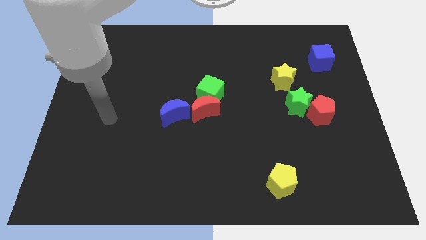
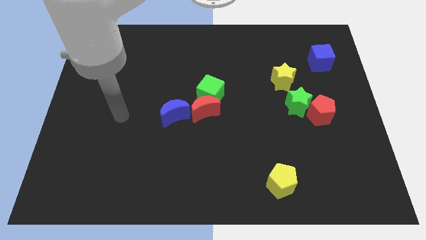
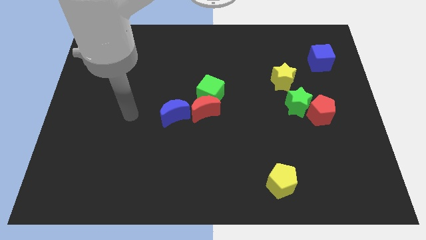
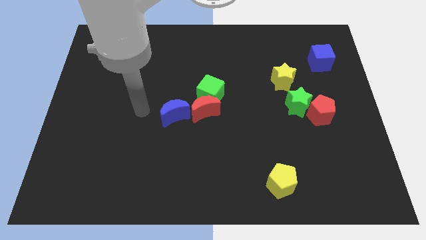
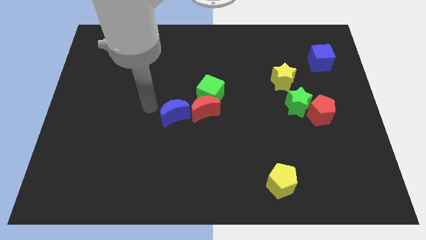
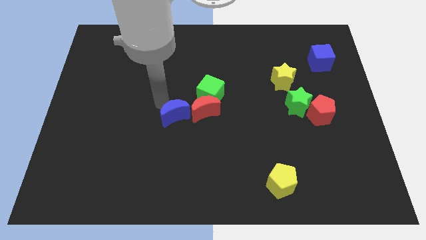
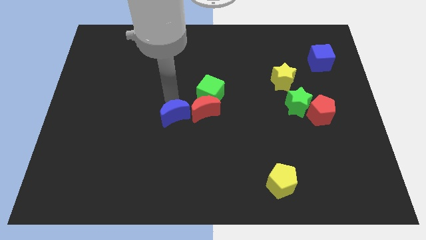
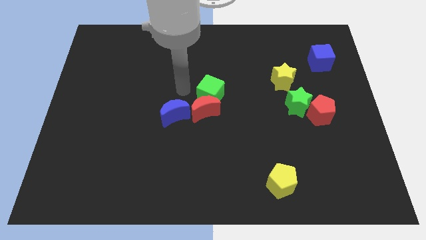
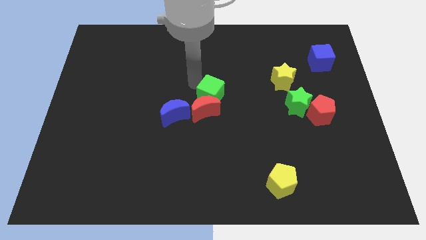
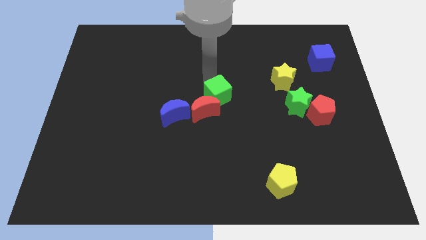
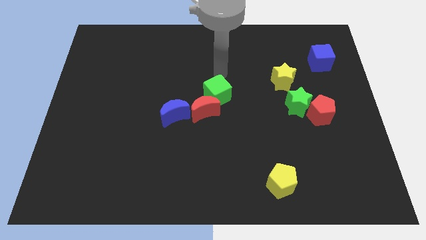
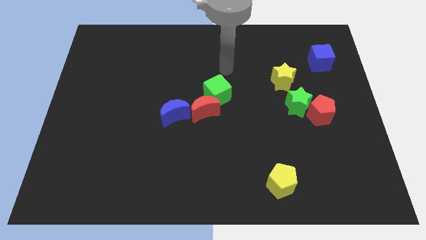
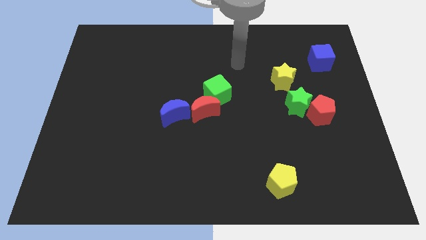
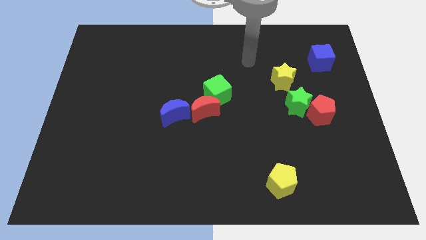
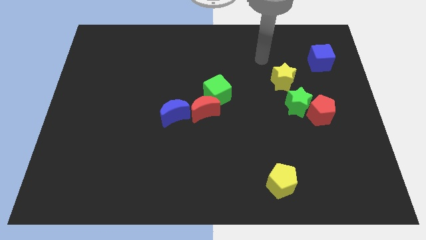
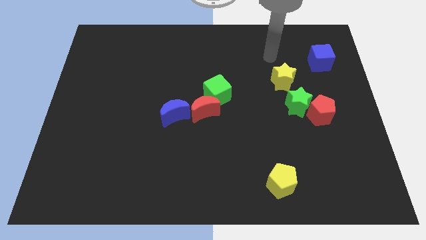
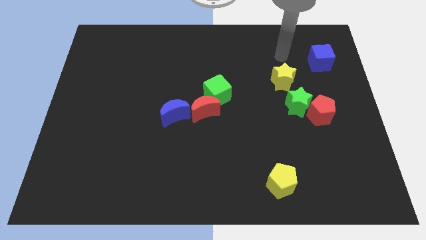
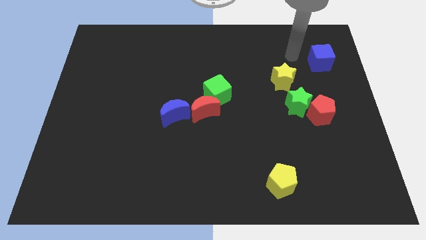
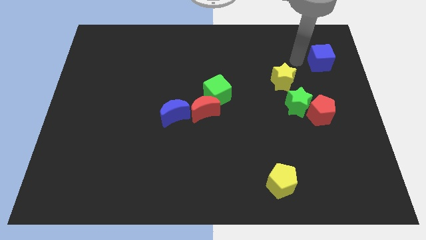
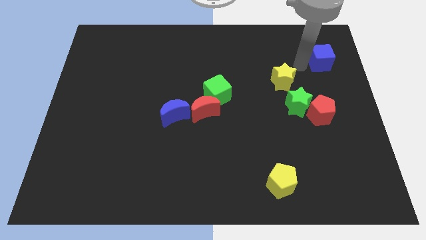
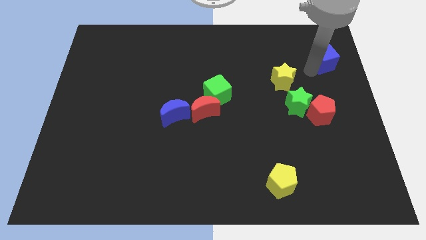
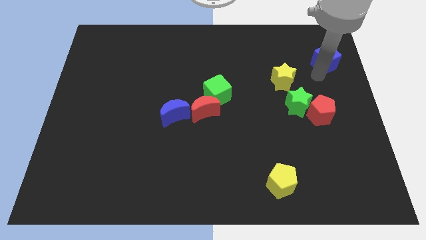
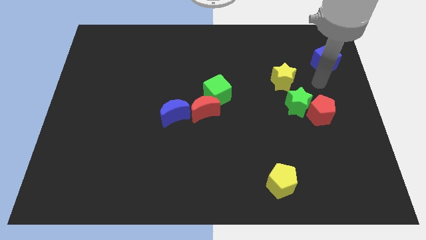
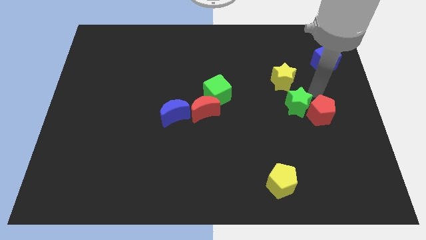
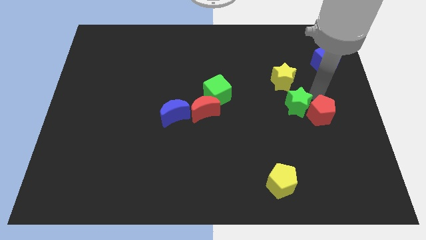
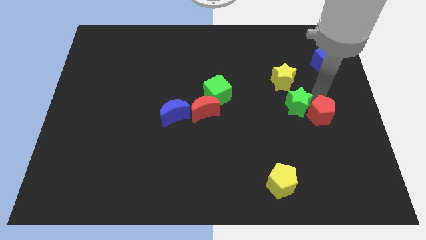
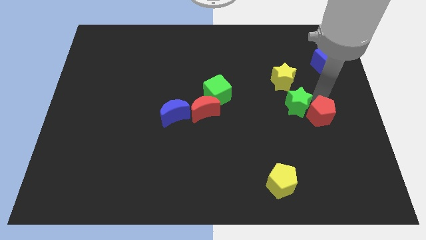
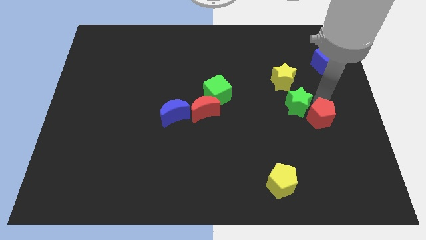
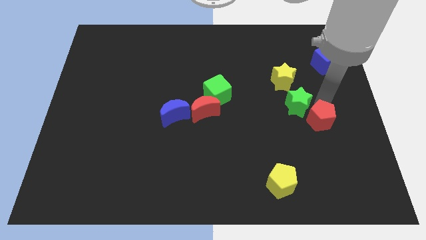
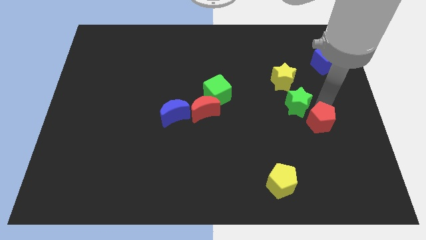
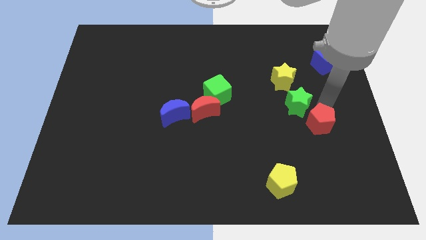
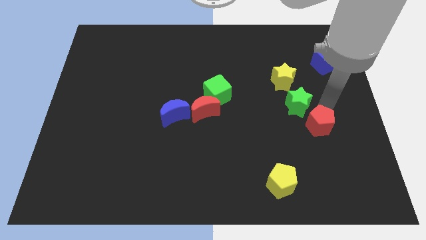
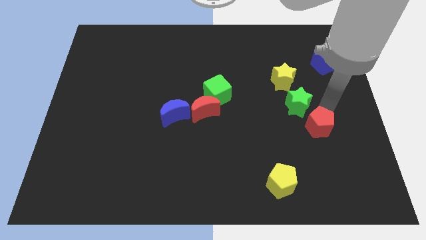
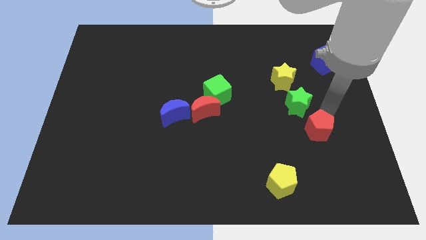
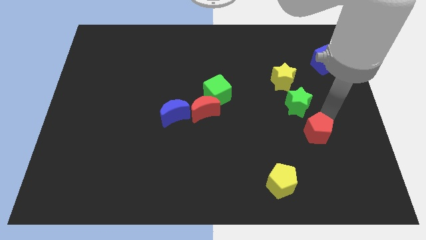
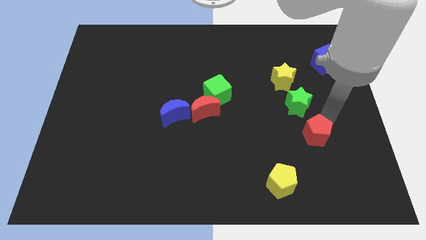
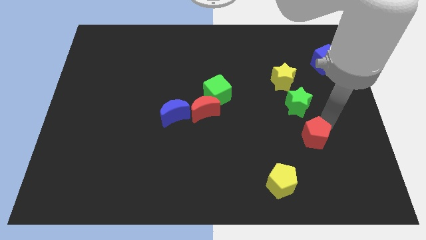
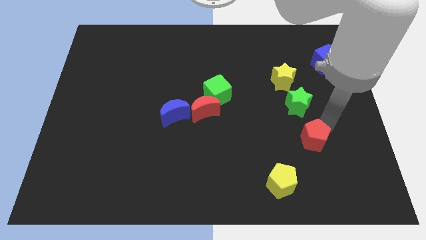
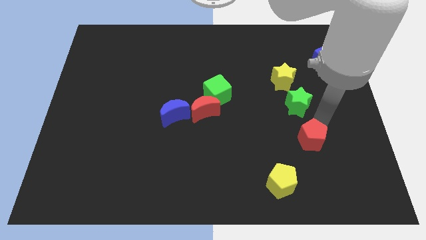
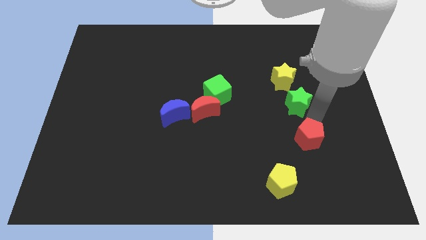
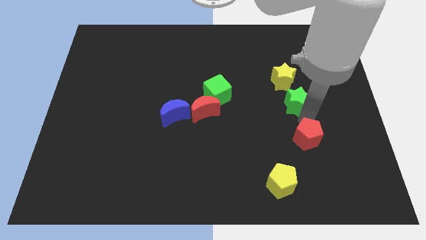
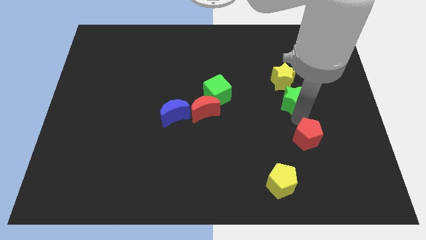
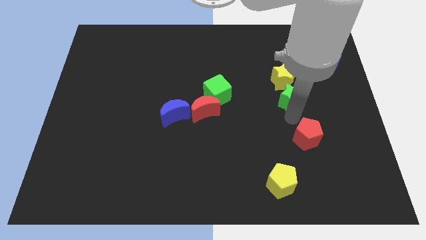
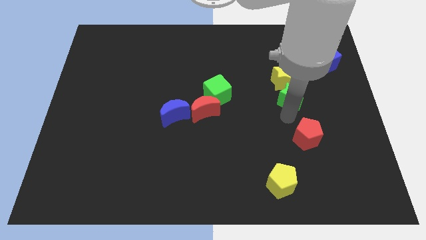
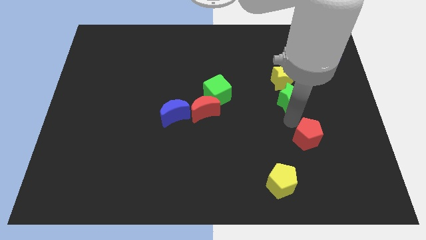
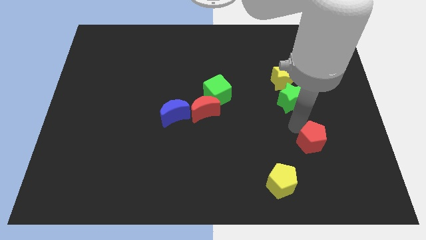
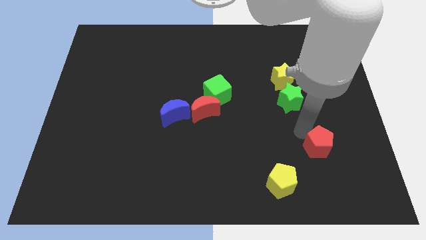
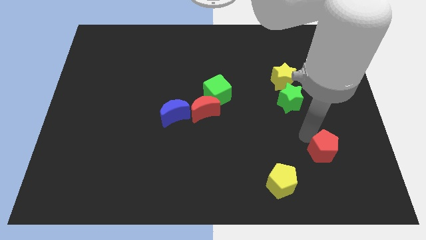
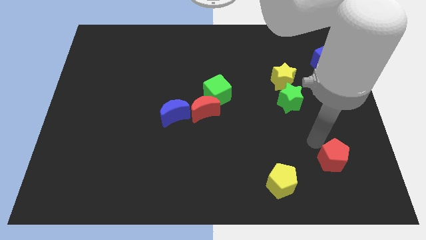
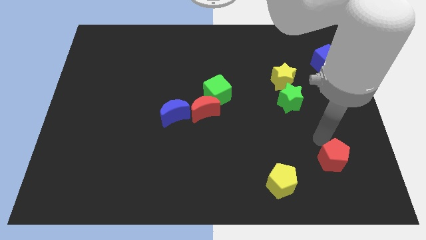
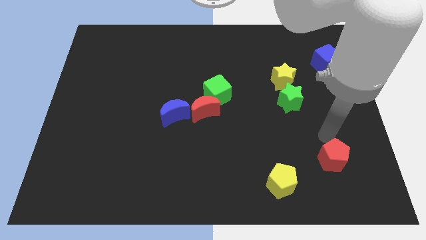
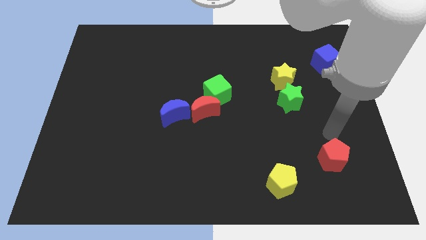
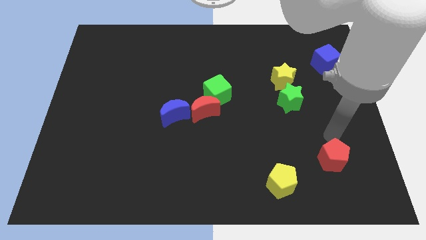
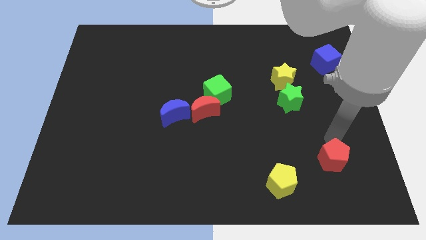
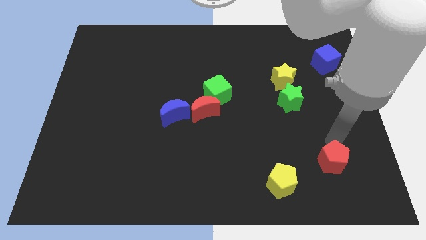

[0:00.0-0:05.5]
put the red pentagon right of the yellow pentagon

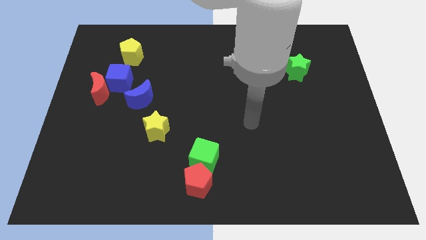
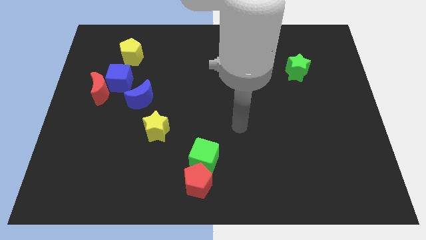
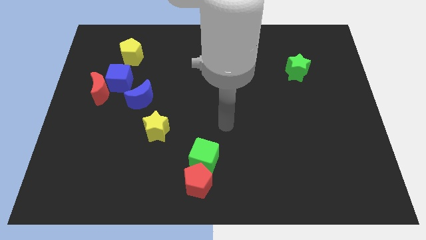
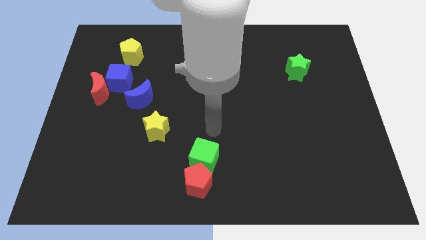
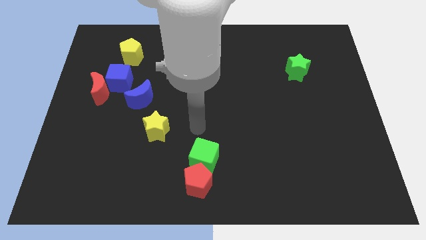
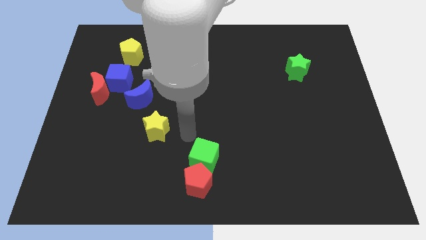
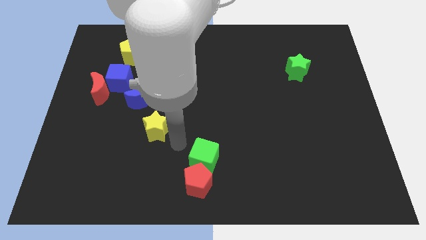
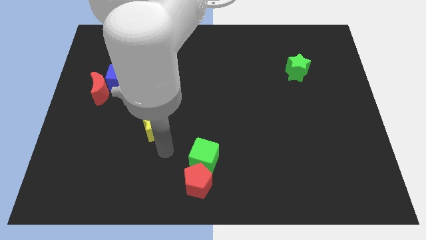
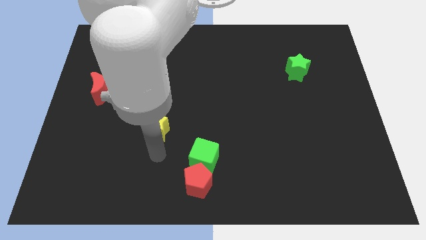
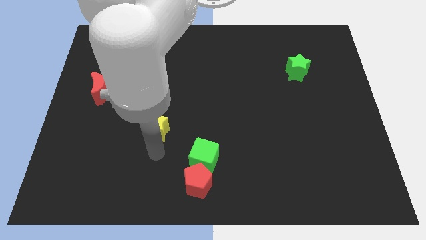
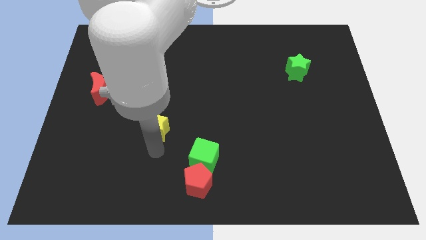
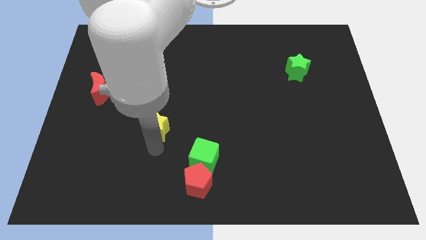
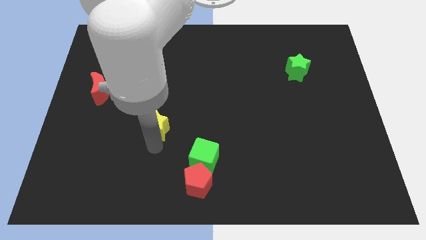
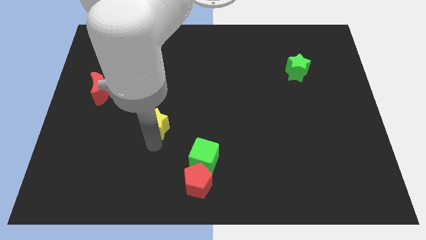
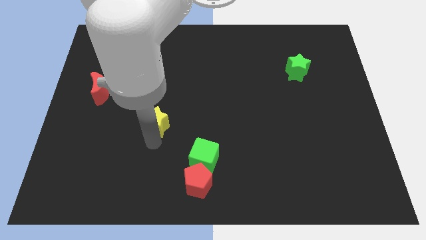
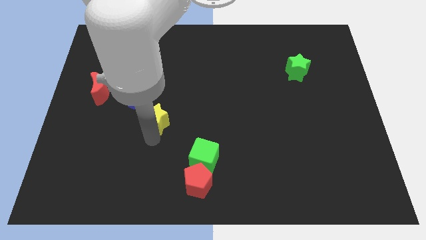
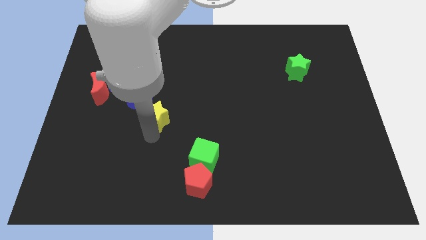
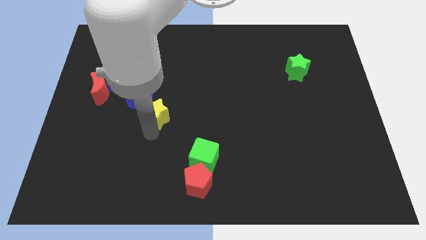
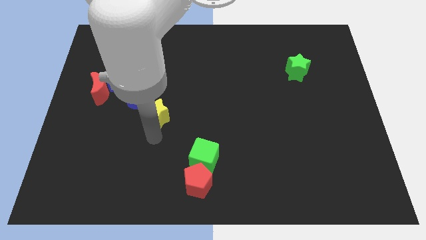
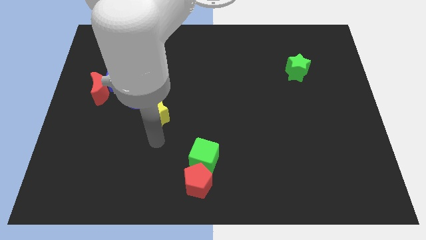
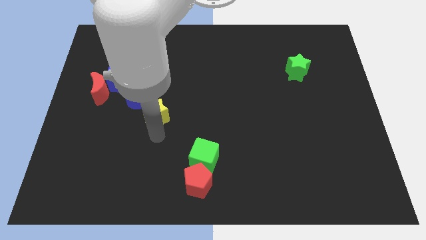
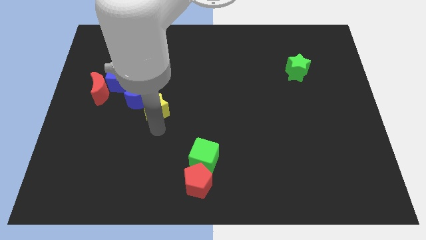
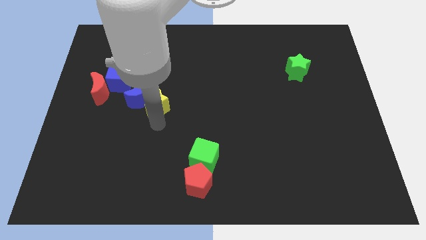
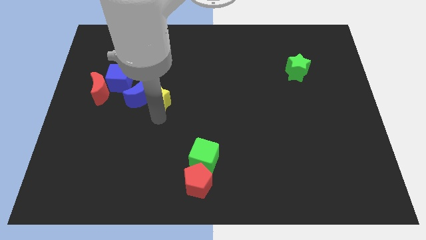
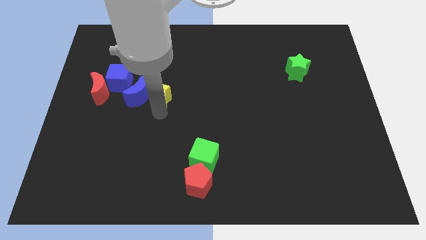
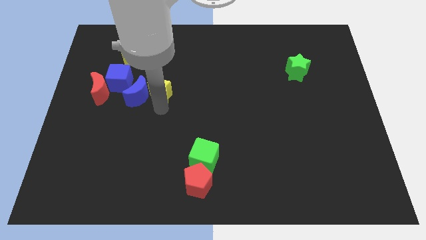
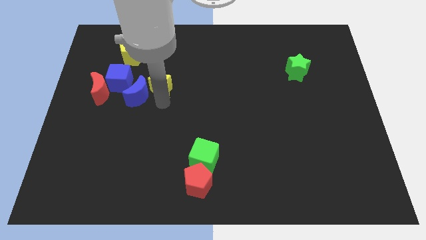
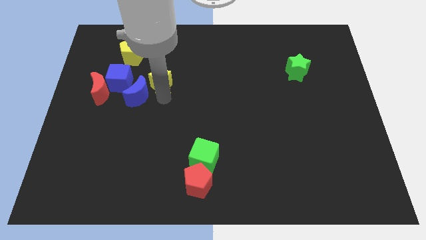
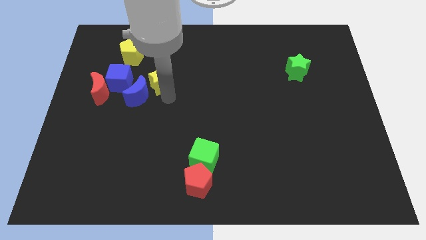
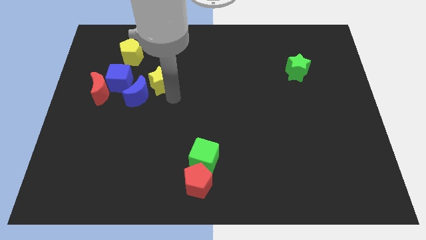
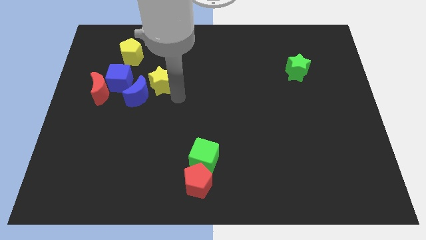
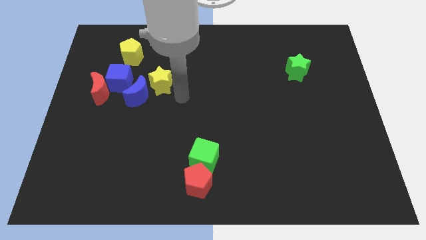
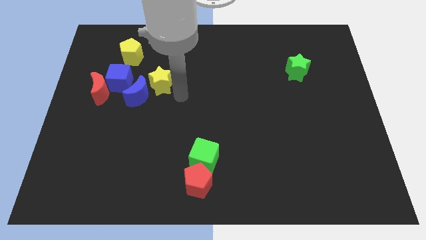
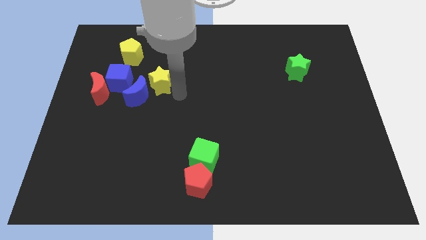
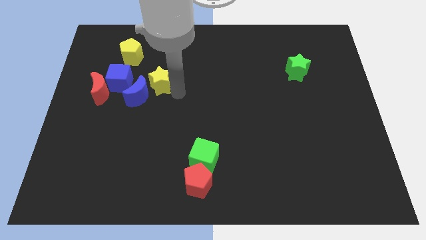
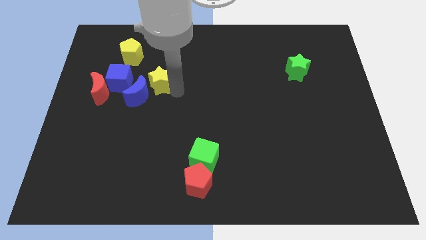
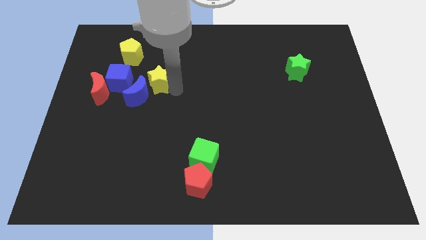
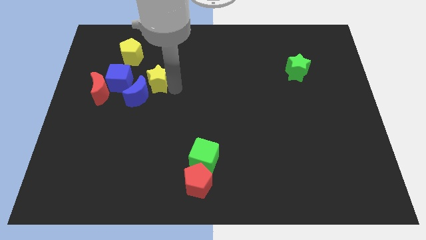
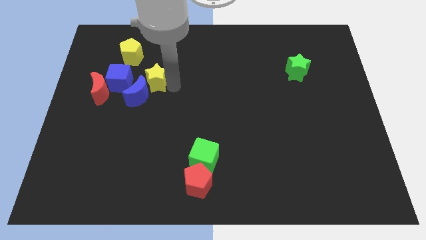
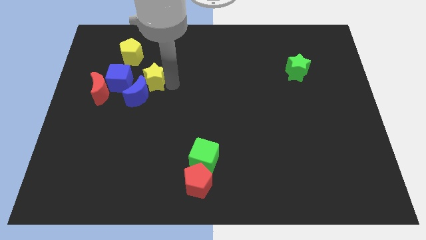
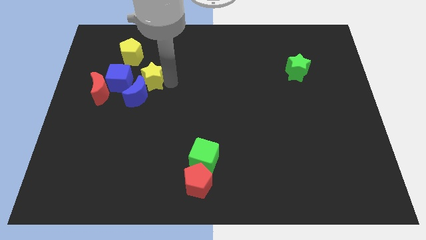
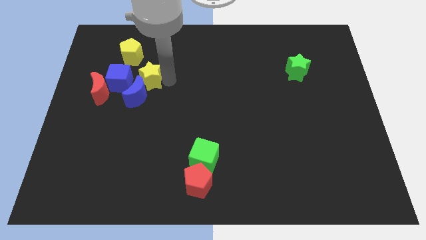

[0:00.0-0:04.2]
slide the yellow star to the top right of the blue cube
